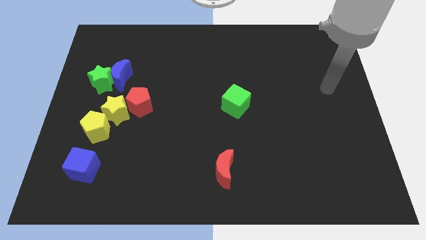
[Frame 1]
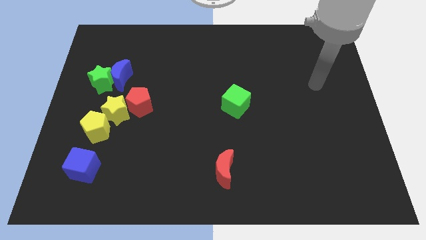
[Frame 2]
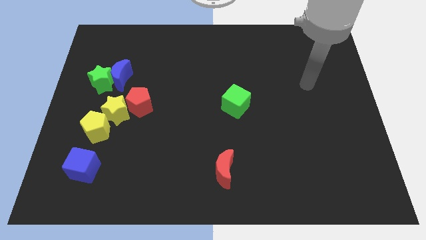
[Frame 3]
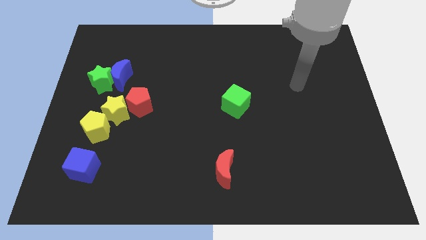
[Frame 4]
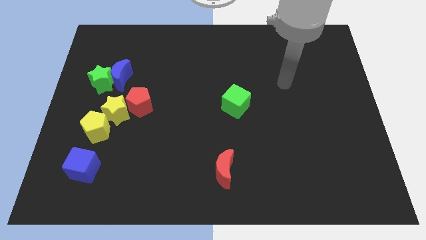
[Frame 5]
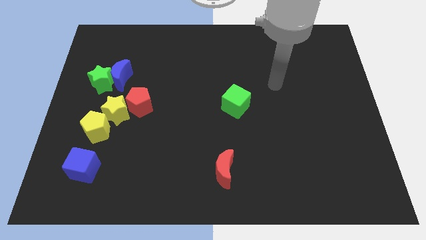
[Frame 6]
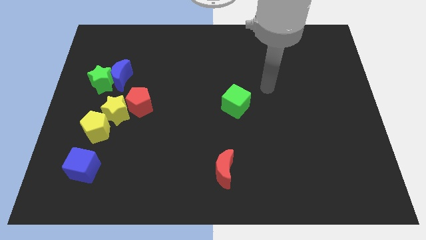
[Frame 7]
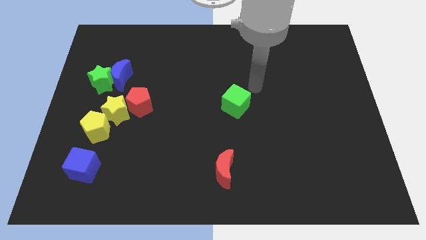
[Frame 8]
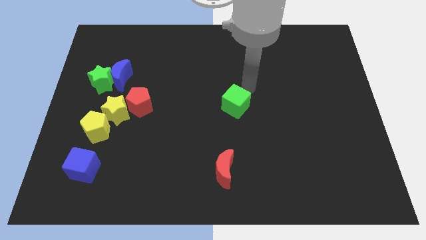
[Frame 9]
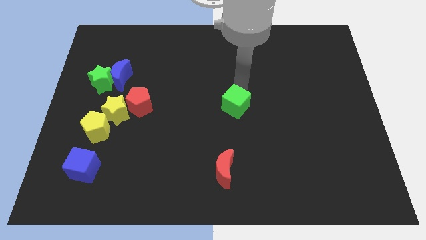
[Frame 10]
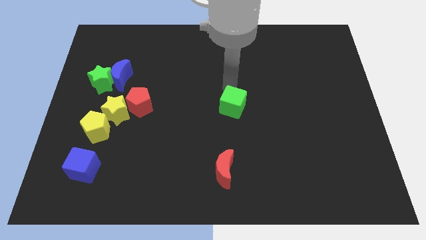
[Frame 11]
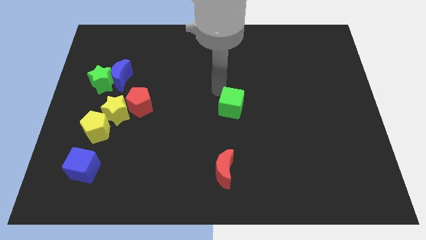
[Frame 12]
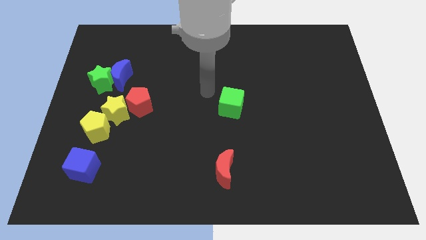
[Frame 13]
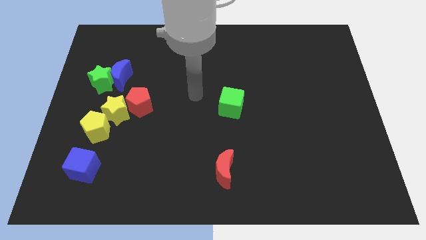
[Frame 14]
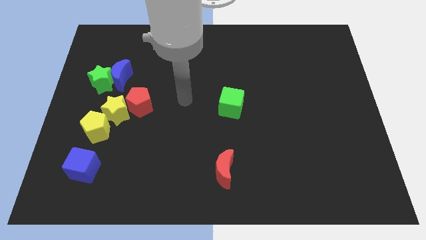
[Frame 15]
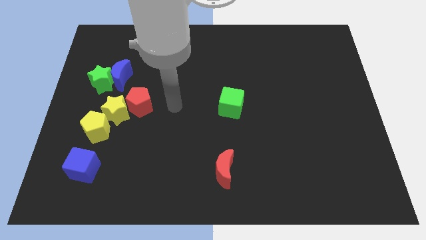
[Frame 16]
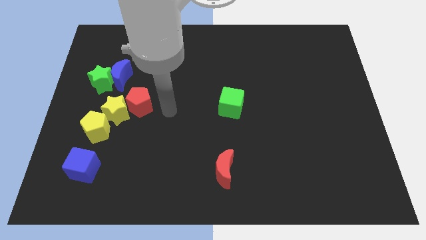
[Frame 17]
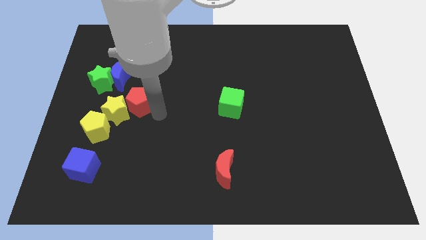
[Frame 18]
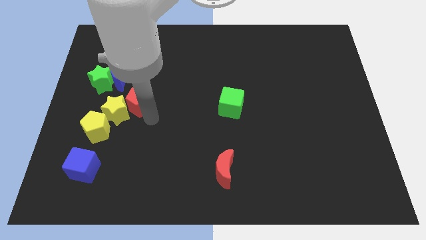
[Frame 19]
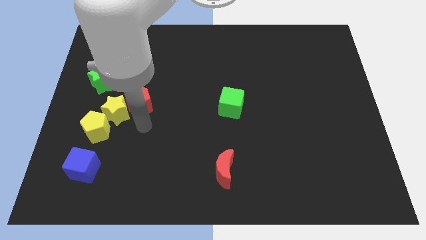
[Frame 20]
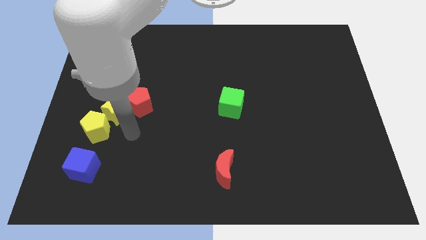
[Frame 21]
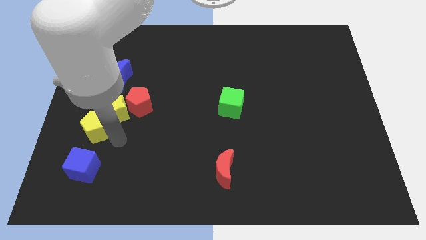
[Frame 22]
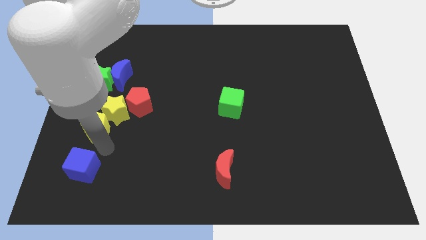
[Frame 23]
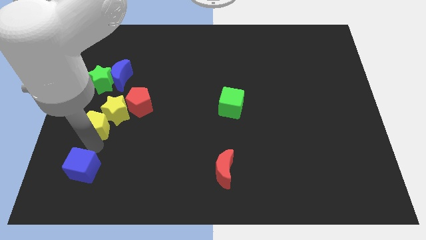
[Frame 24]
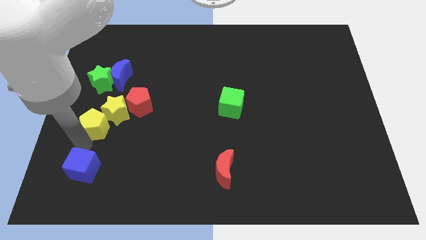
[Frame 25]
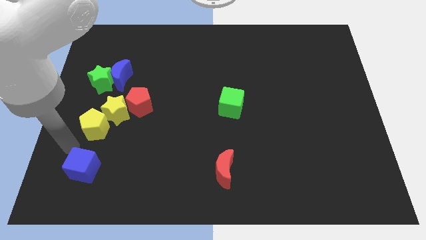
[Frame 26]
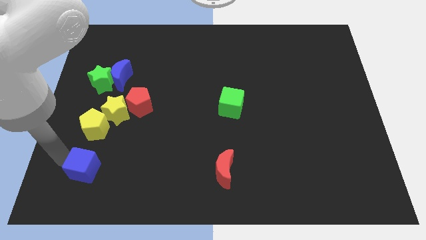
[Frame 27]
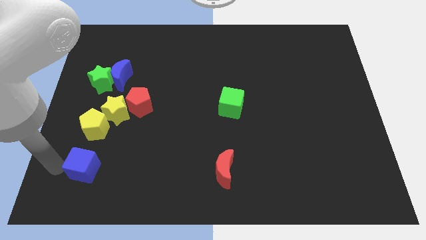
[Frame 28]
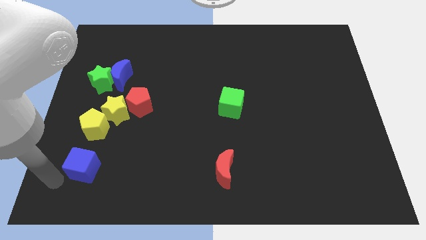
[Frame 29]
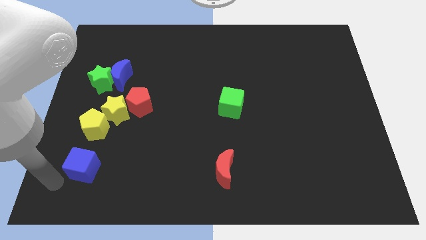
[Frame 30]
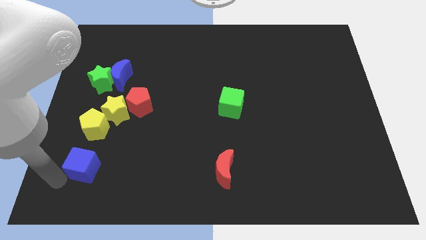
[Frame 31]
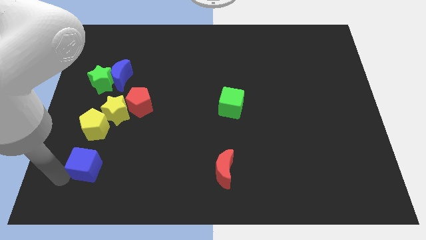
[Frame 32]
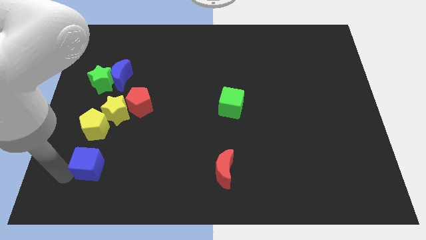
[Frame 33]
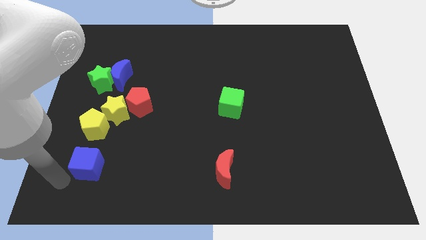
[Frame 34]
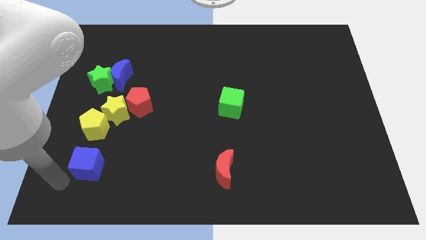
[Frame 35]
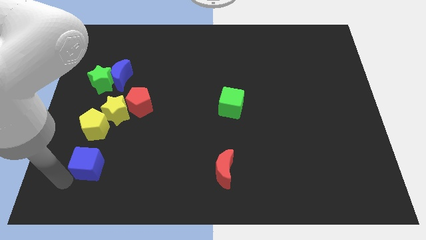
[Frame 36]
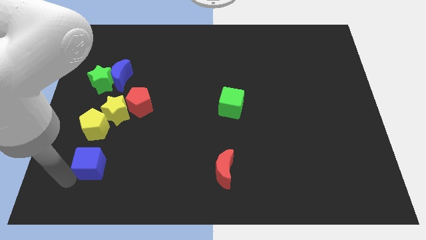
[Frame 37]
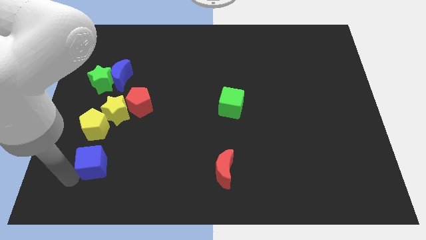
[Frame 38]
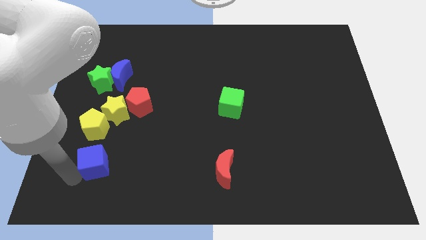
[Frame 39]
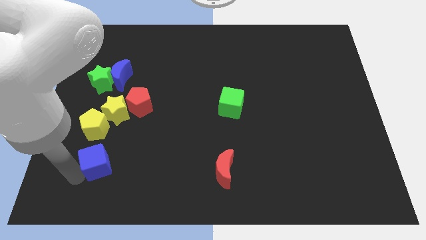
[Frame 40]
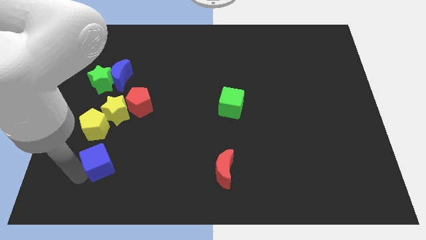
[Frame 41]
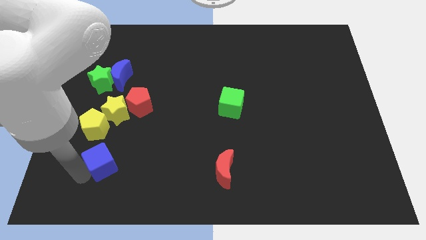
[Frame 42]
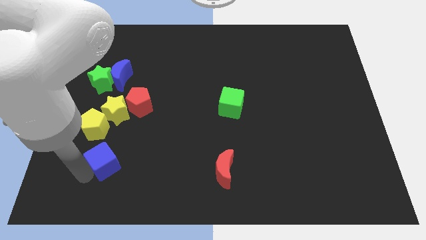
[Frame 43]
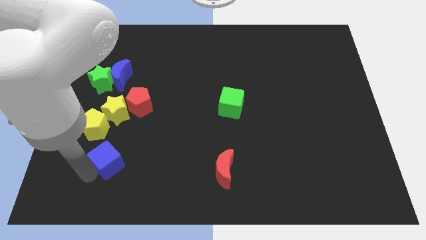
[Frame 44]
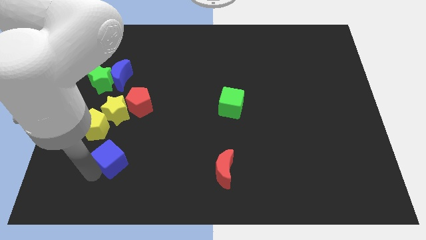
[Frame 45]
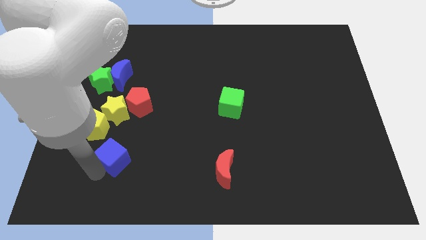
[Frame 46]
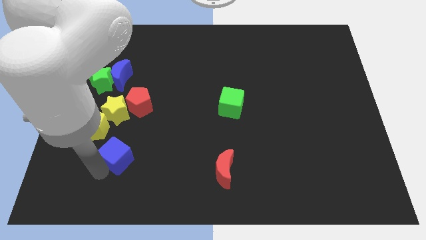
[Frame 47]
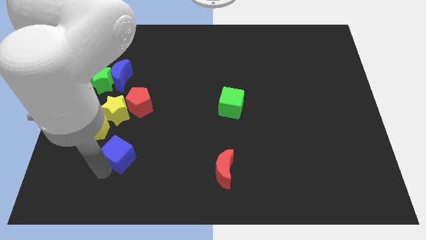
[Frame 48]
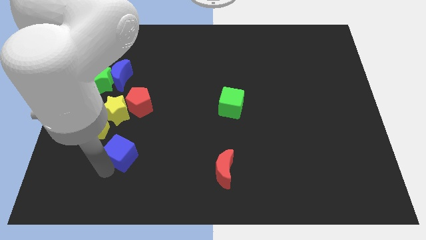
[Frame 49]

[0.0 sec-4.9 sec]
push the blue cube diagonally up and right a little

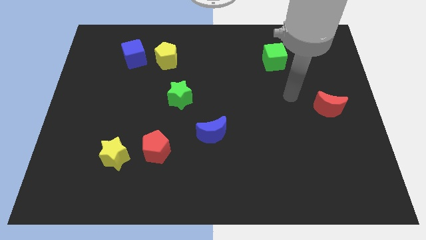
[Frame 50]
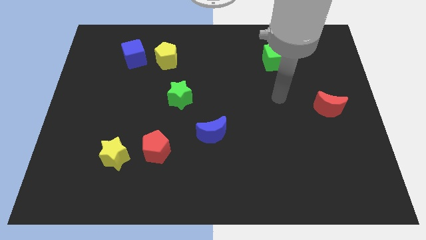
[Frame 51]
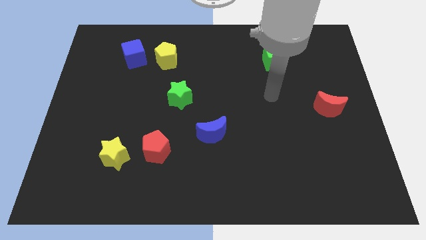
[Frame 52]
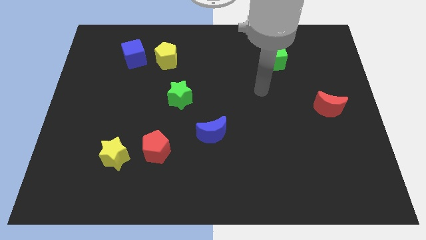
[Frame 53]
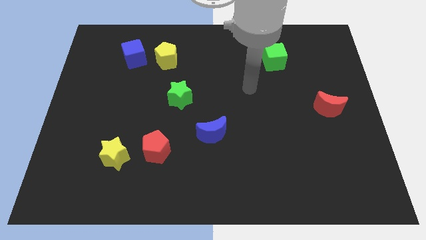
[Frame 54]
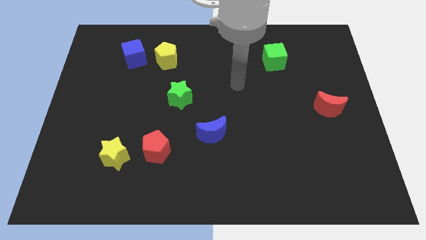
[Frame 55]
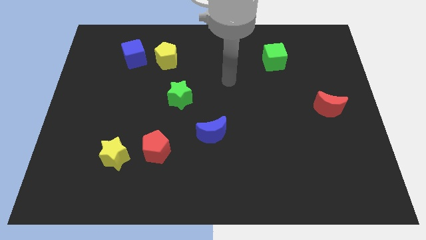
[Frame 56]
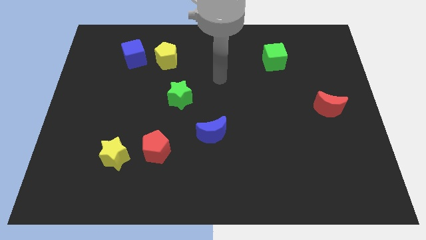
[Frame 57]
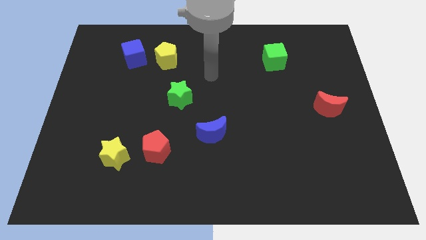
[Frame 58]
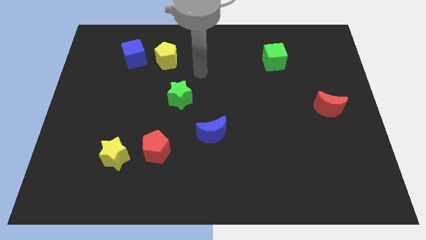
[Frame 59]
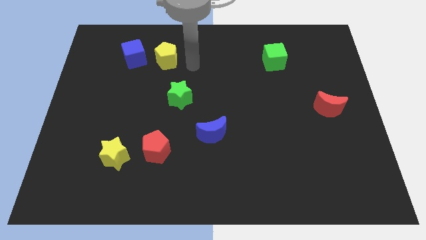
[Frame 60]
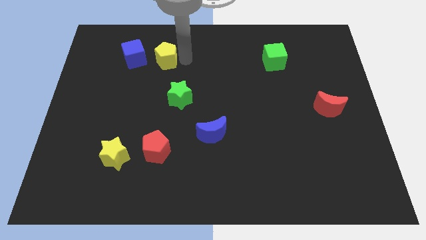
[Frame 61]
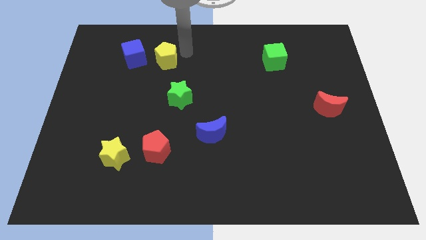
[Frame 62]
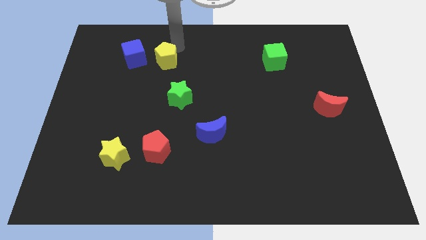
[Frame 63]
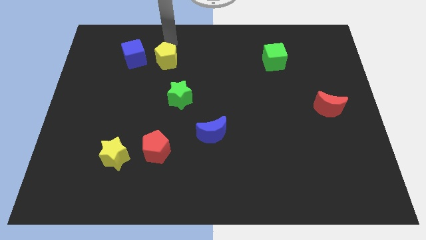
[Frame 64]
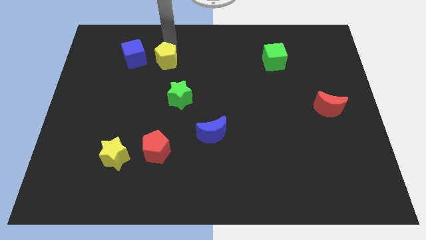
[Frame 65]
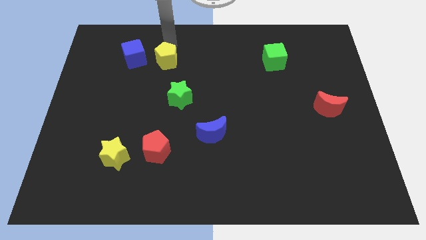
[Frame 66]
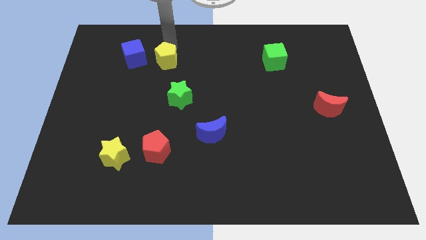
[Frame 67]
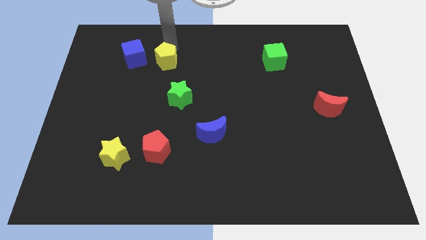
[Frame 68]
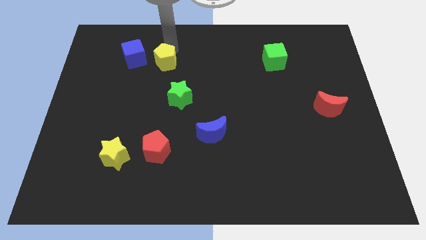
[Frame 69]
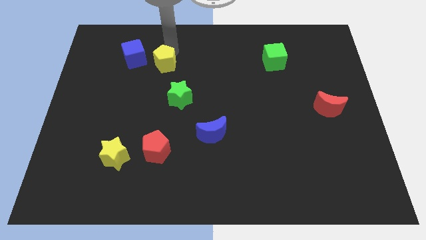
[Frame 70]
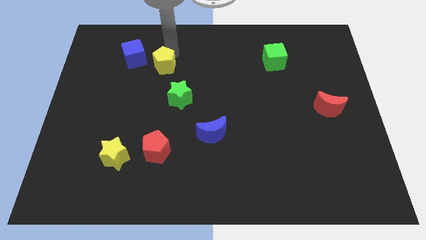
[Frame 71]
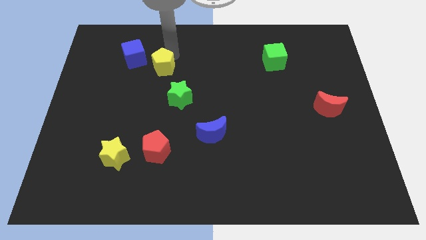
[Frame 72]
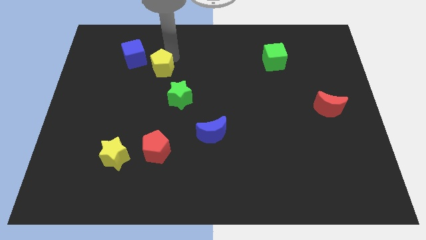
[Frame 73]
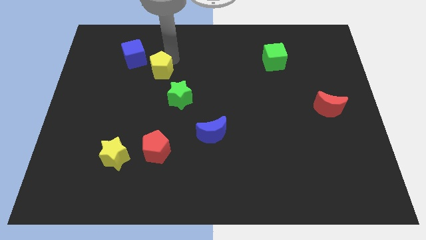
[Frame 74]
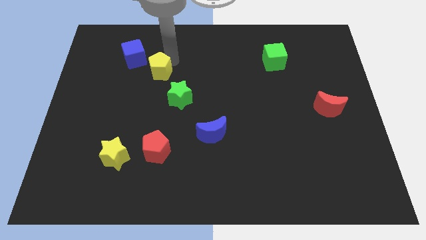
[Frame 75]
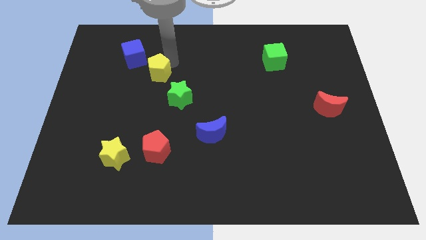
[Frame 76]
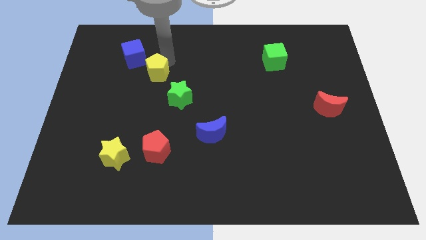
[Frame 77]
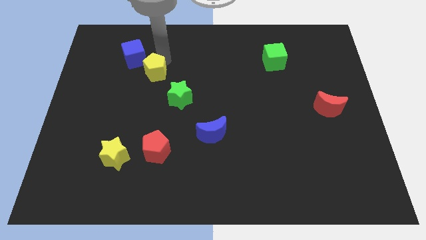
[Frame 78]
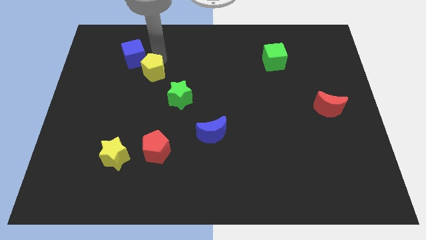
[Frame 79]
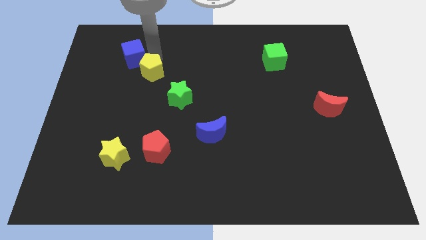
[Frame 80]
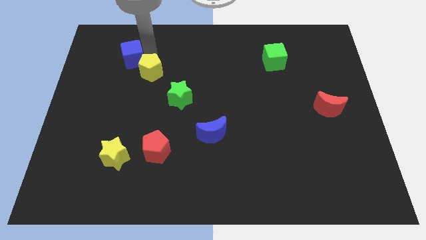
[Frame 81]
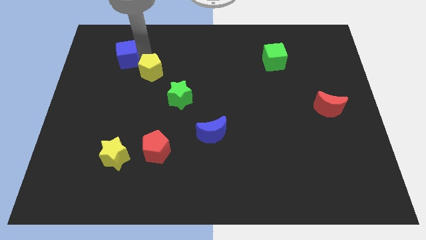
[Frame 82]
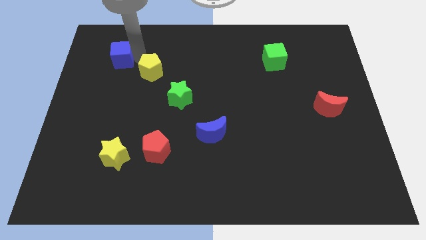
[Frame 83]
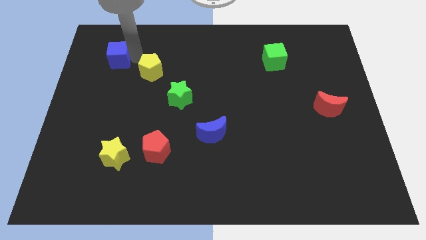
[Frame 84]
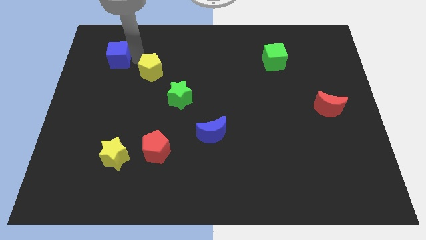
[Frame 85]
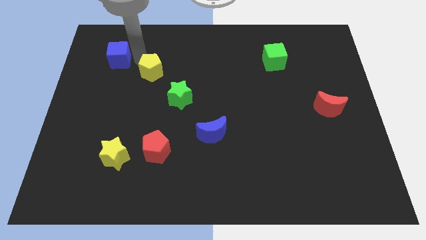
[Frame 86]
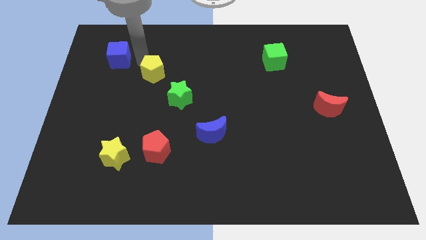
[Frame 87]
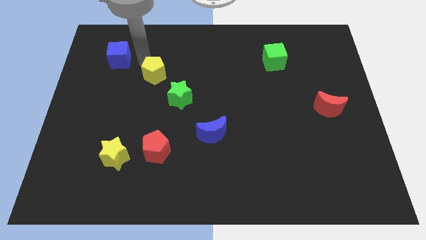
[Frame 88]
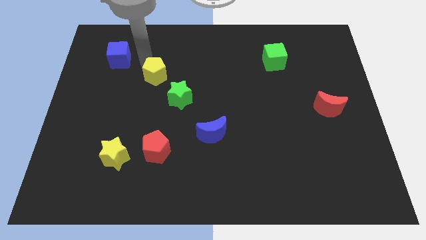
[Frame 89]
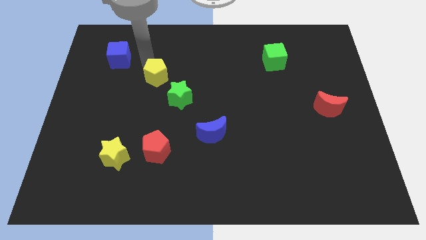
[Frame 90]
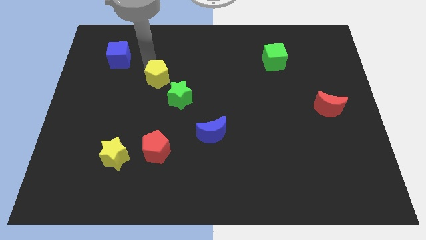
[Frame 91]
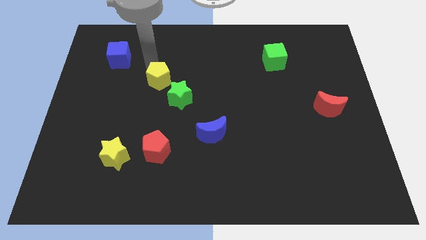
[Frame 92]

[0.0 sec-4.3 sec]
slightly move the yellow pentagon downwards
